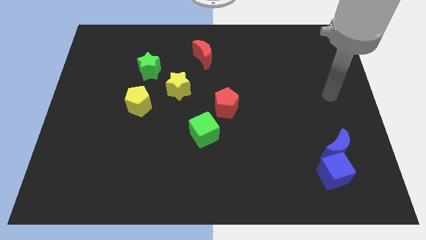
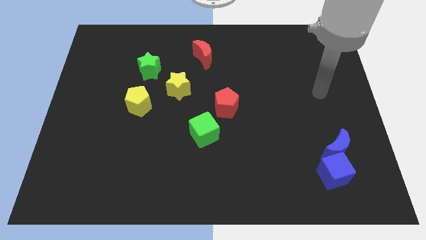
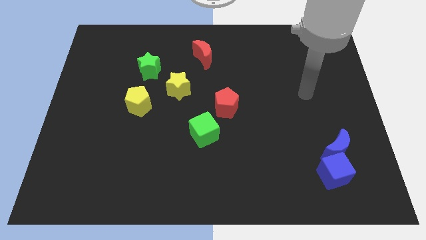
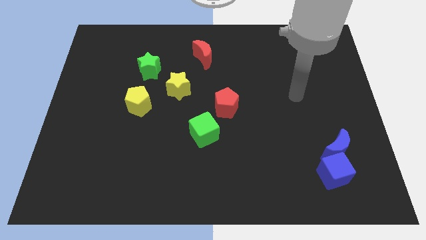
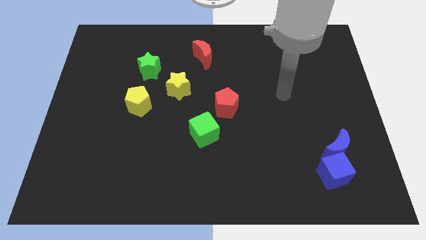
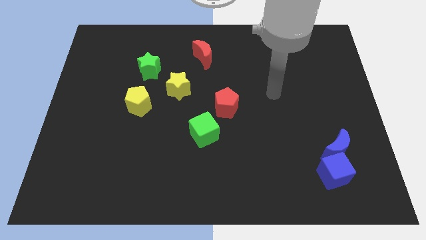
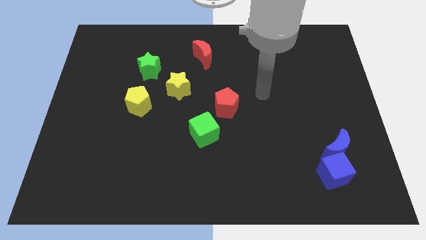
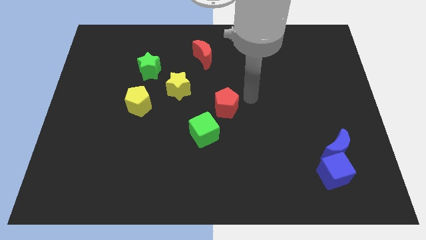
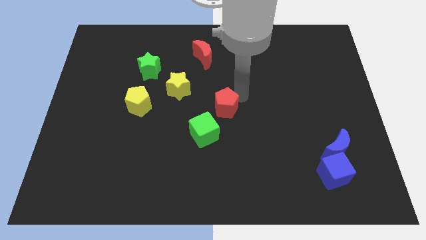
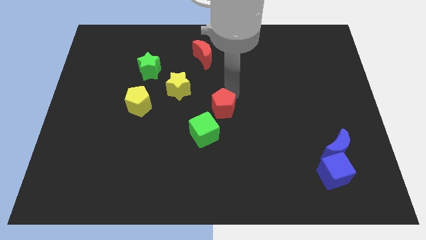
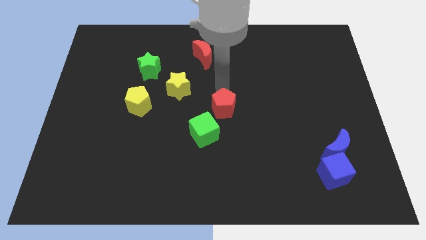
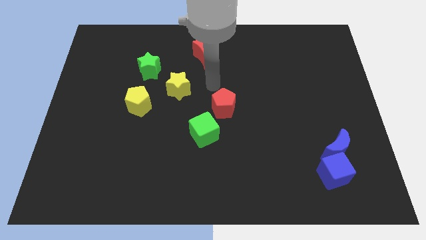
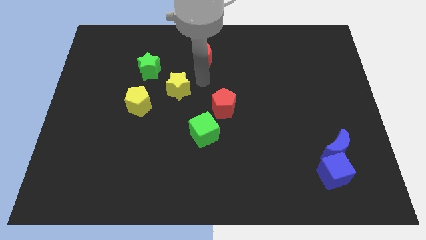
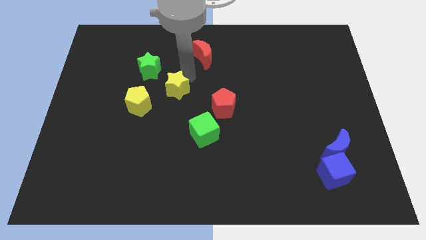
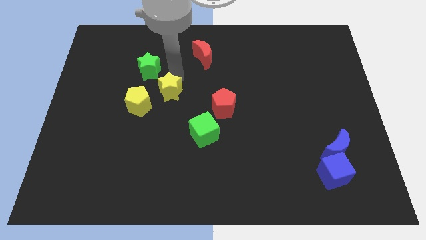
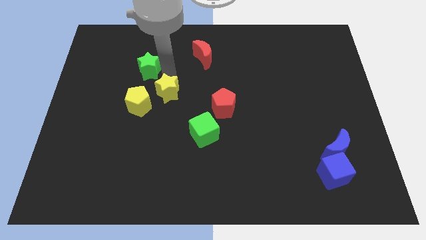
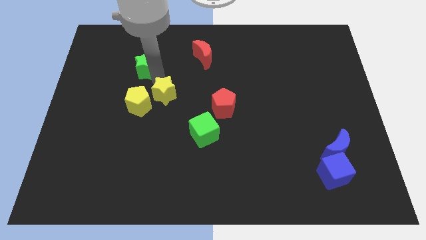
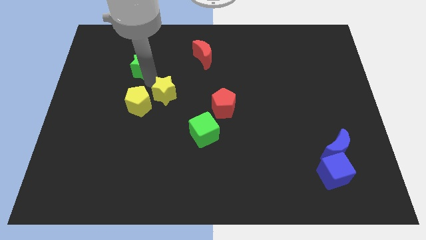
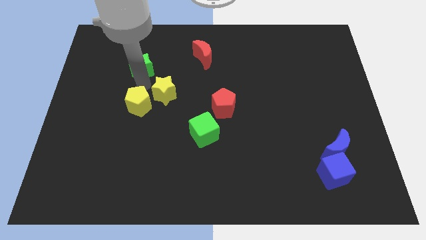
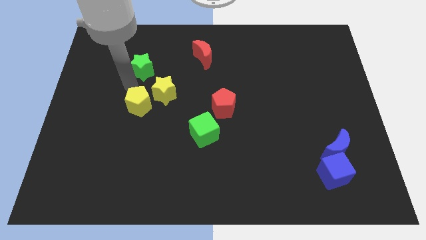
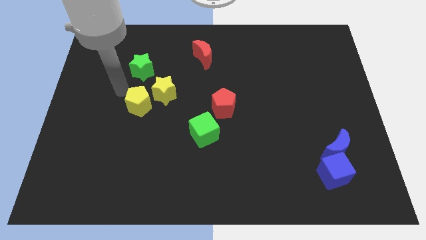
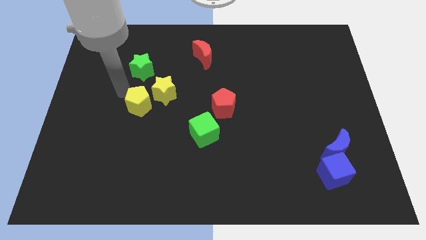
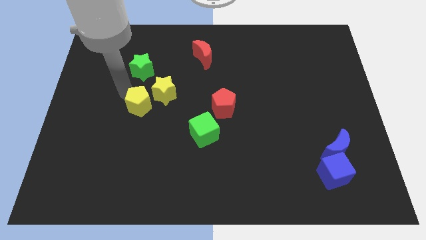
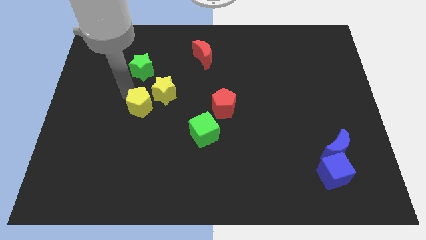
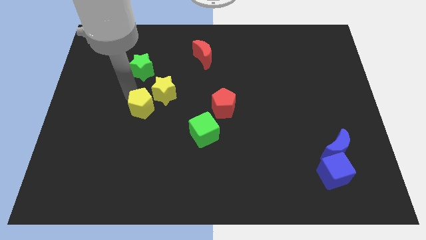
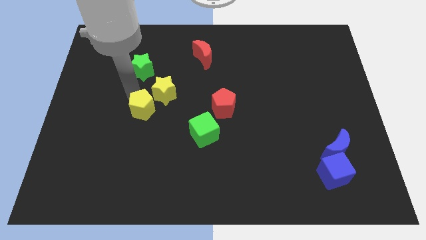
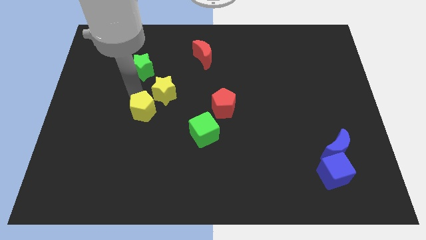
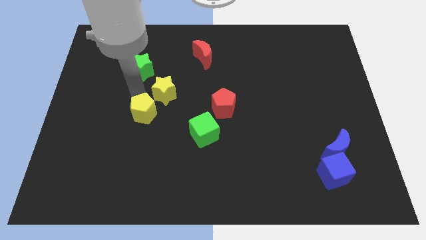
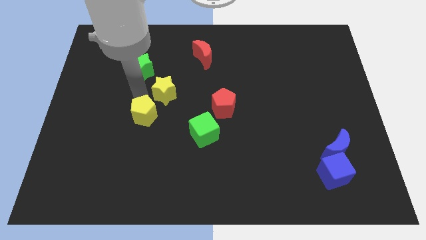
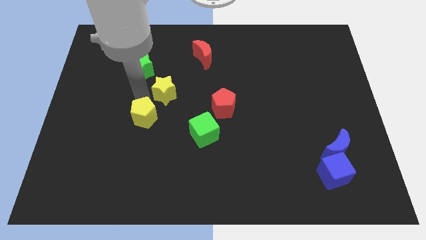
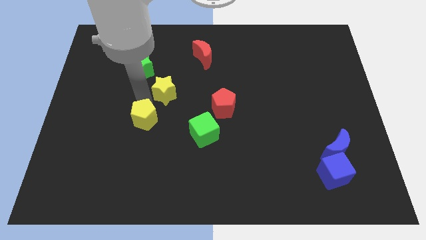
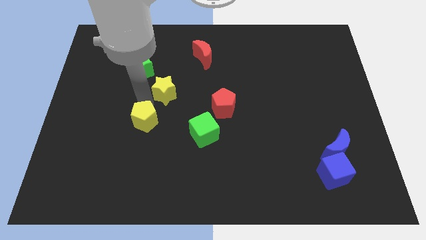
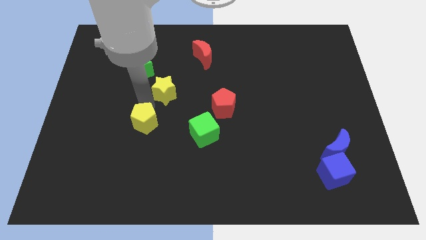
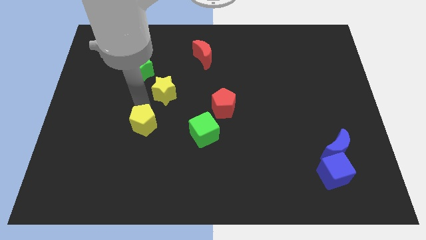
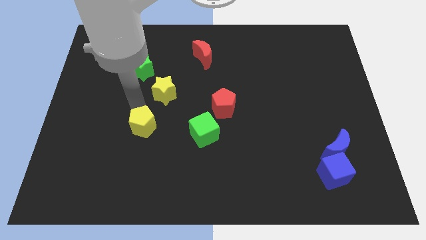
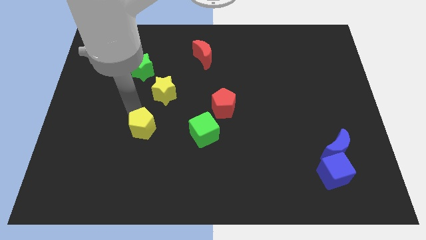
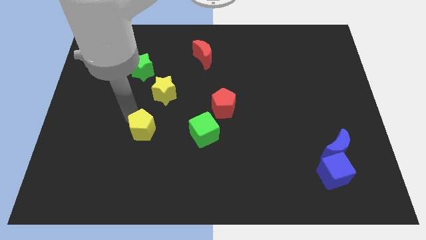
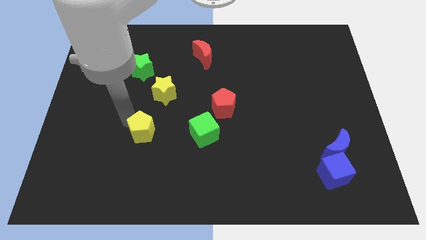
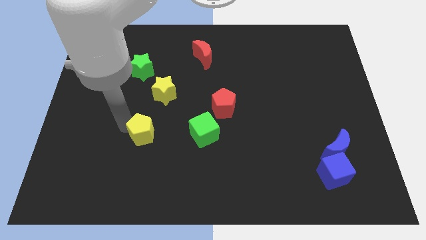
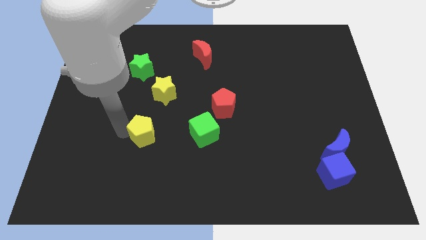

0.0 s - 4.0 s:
slightly slide the yellow pentagon downwards and then to the right

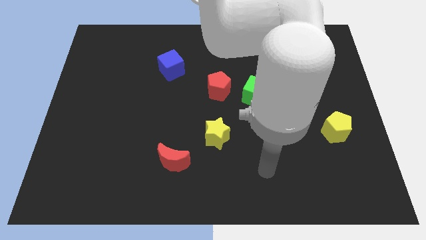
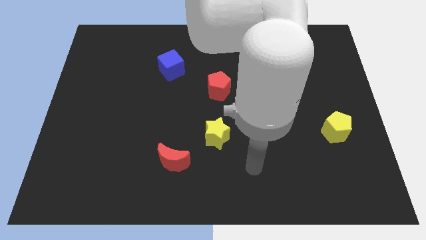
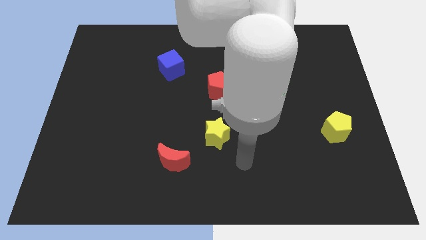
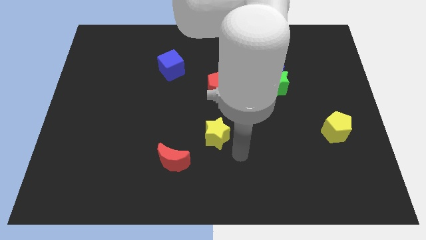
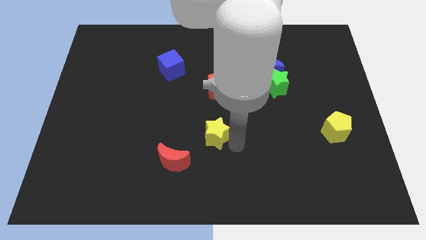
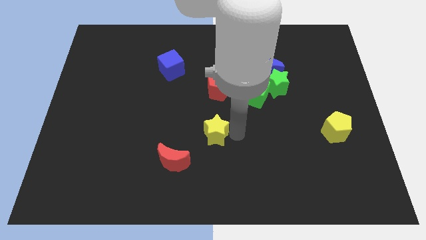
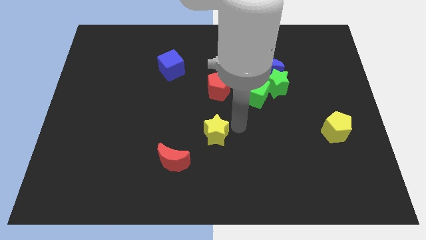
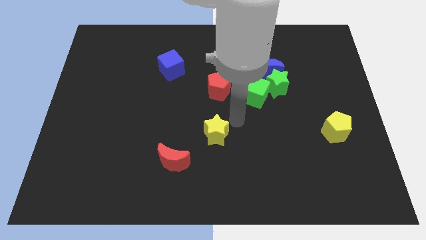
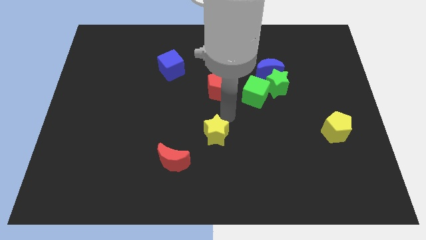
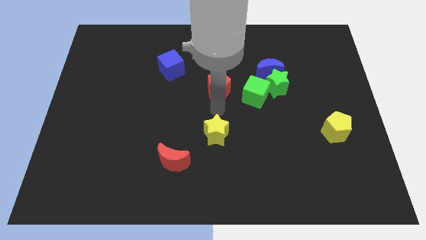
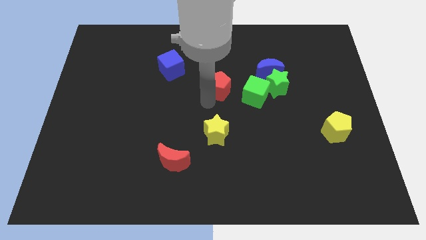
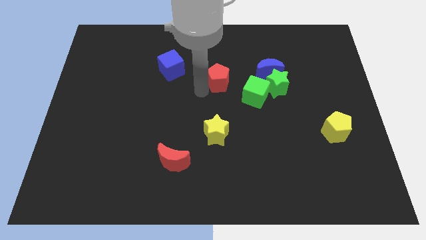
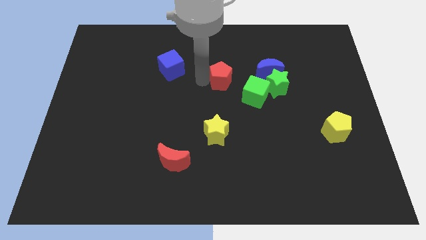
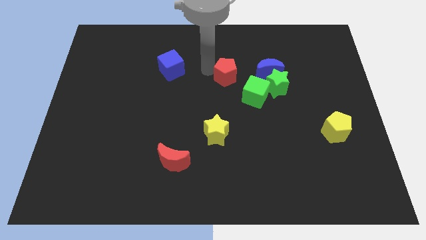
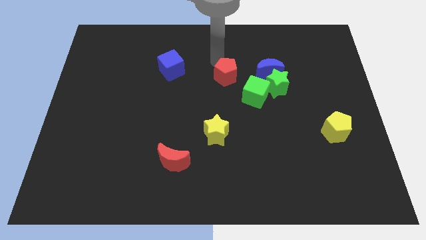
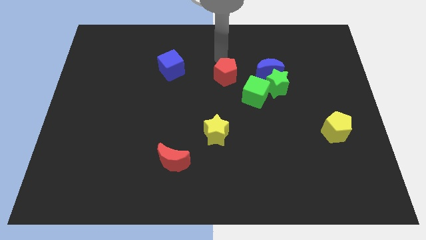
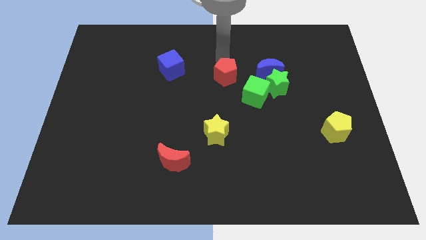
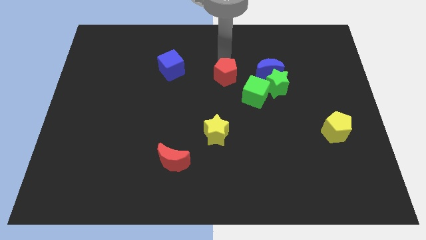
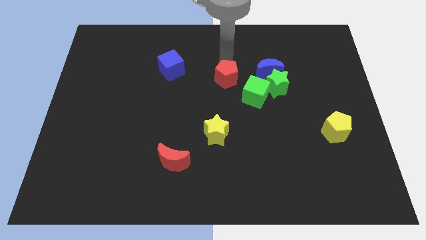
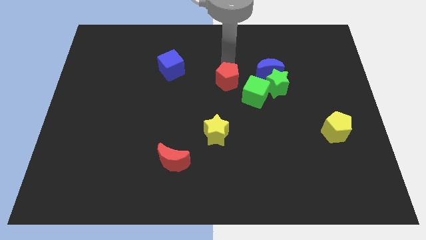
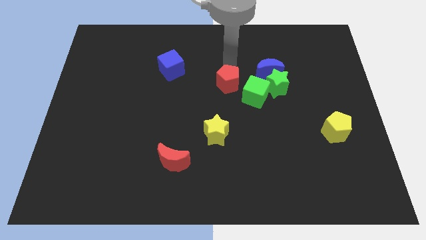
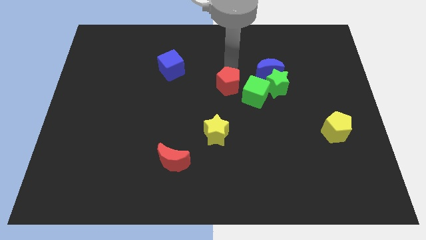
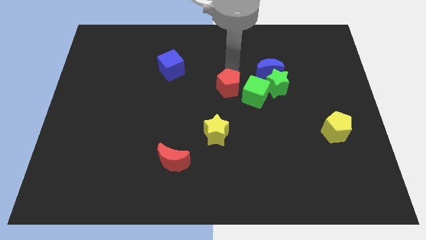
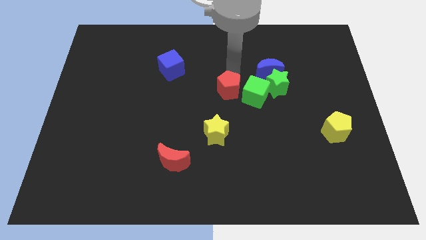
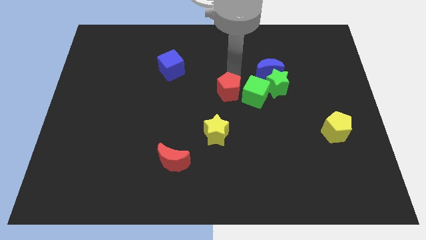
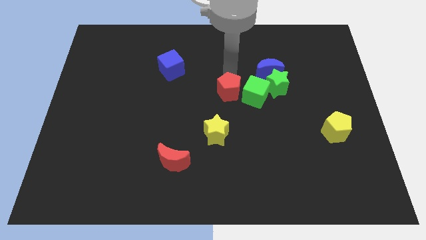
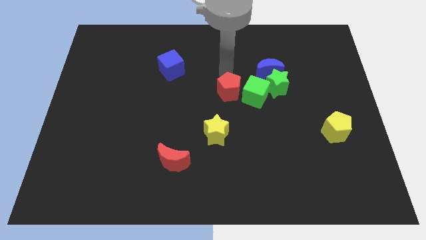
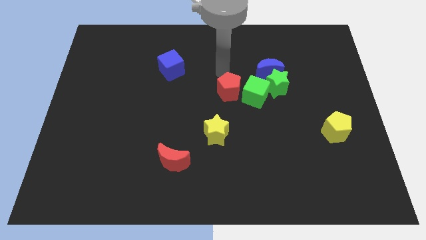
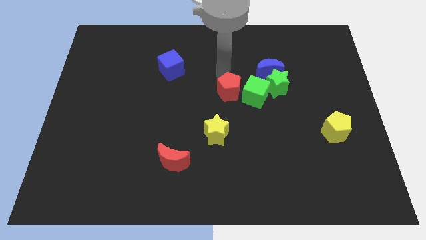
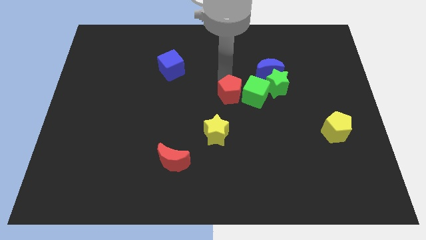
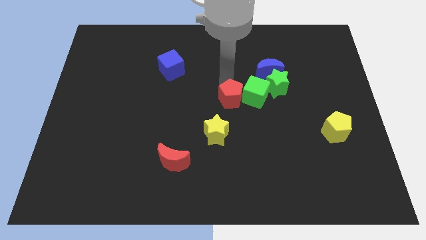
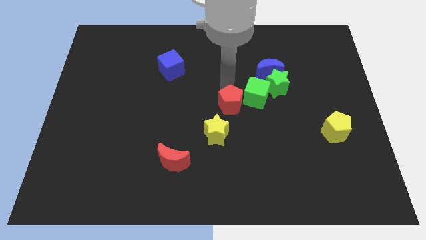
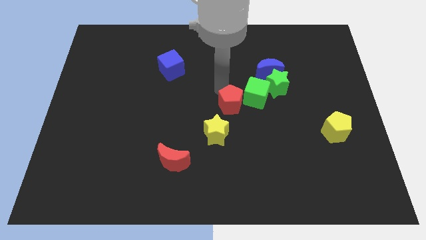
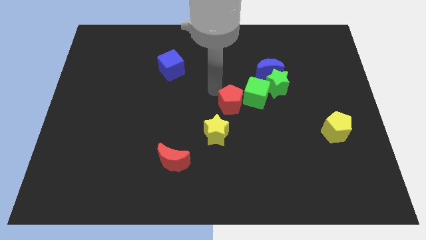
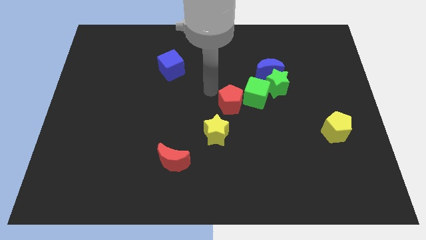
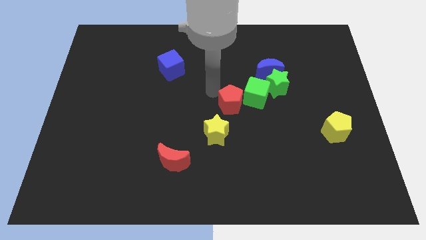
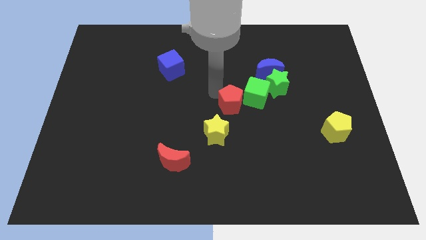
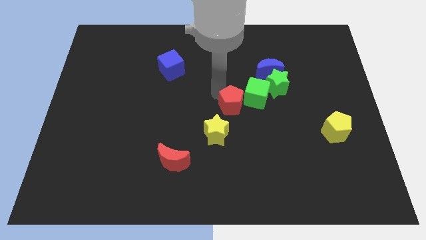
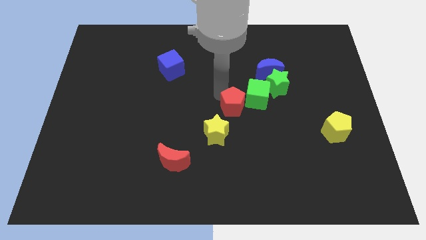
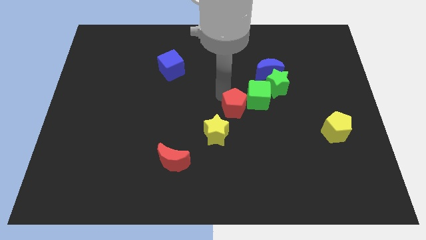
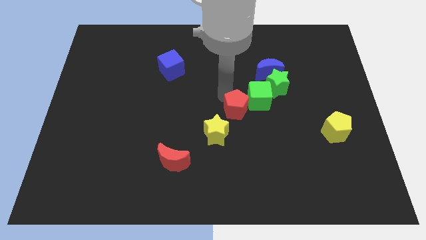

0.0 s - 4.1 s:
slightly move the red pentagon down and then right

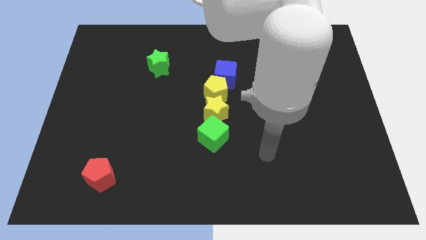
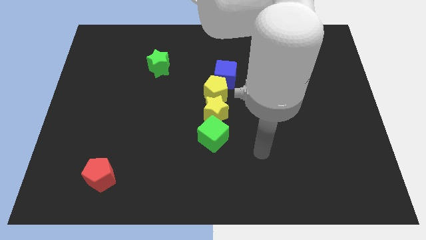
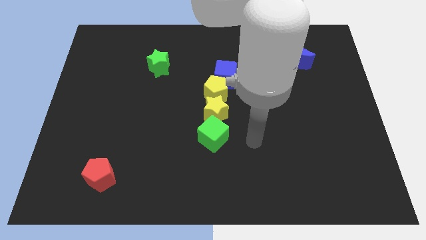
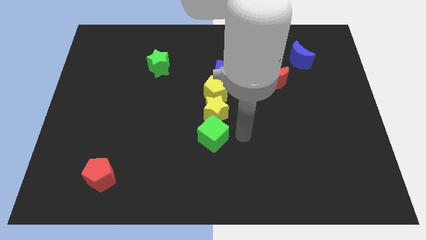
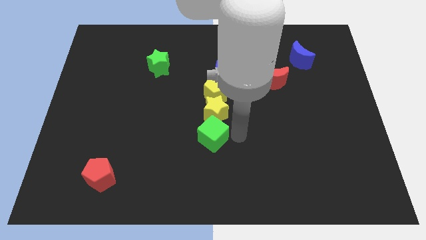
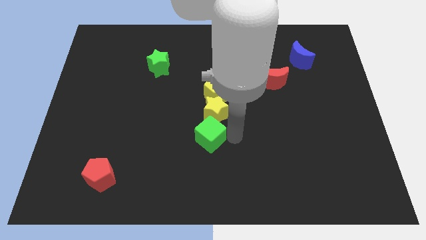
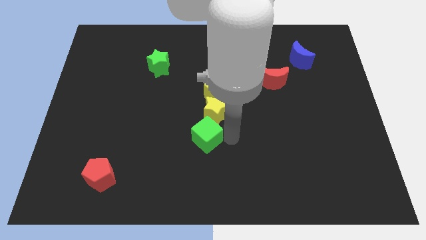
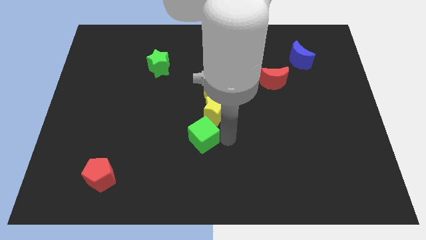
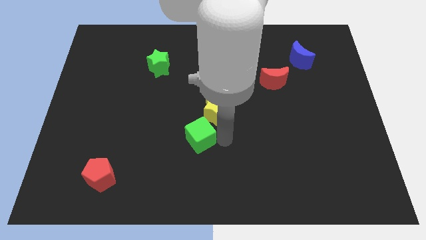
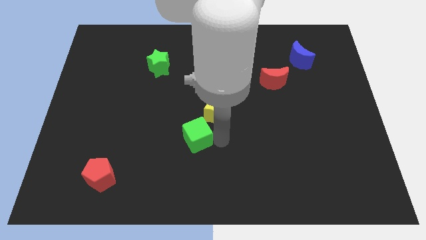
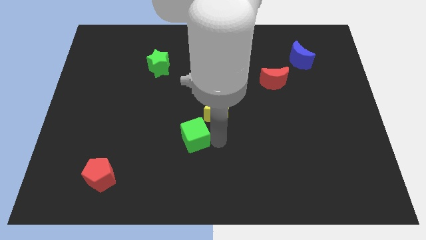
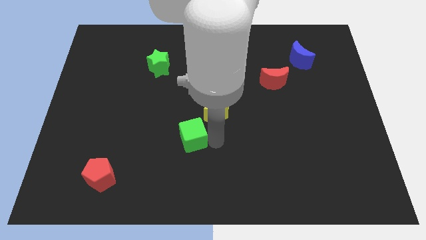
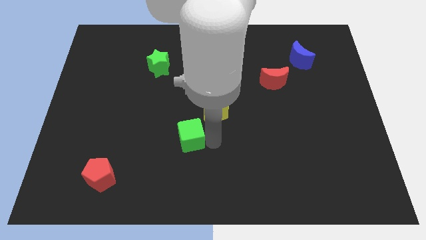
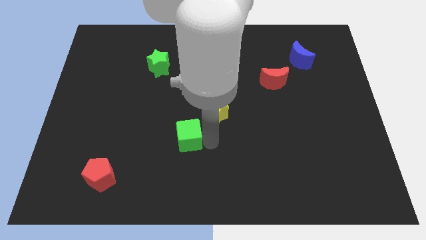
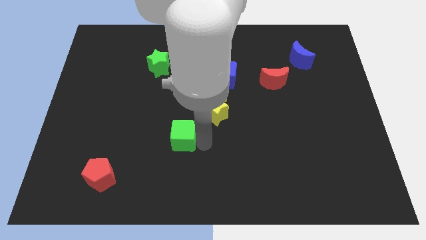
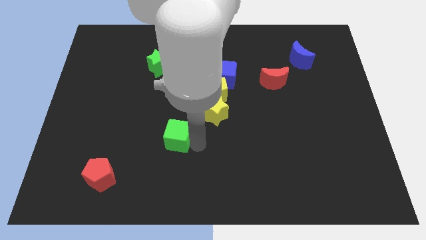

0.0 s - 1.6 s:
slightly push the green cube left
